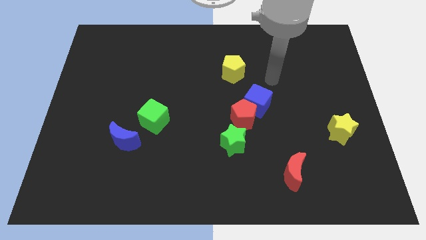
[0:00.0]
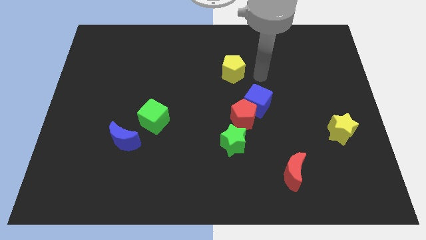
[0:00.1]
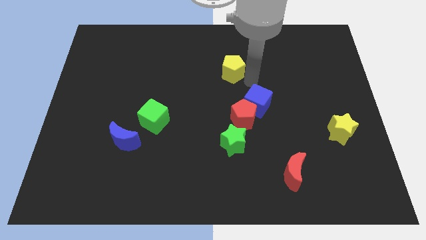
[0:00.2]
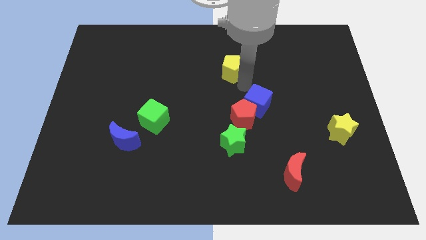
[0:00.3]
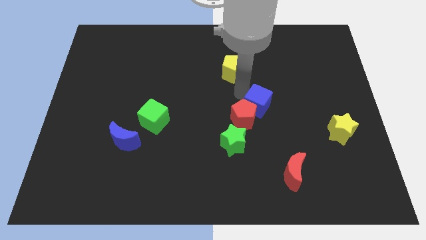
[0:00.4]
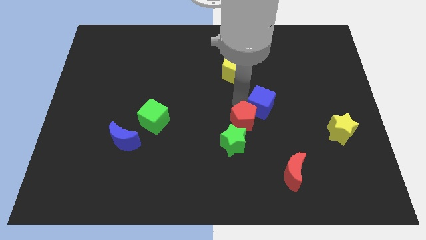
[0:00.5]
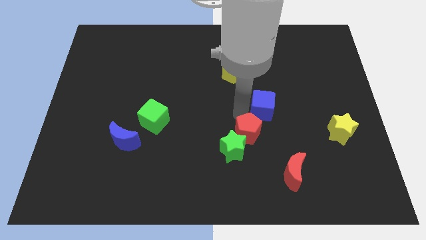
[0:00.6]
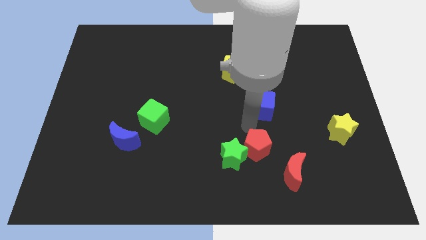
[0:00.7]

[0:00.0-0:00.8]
move the blue cube away from the red pentagon

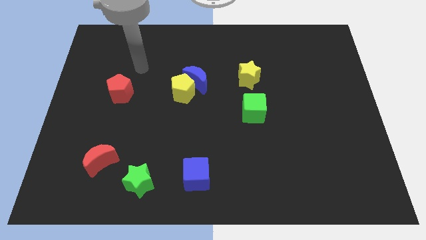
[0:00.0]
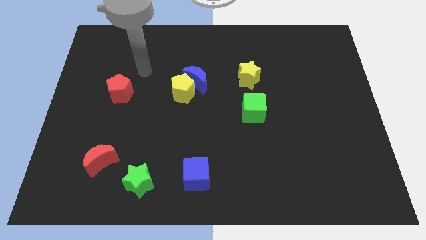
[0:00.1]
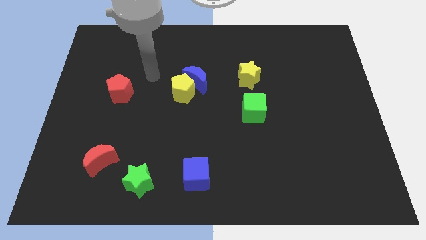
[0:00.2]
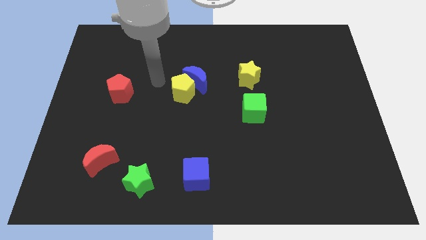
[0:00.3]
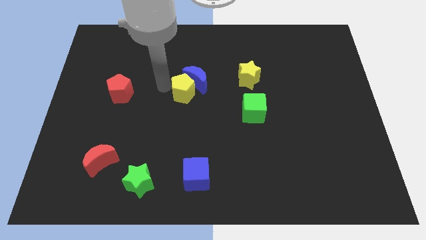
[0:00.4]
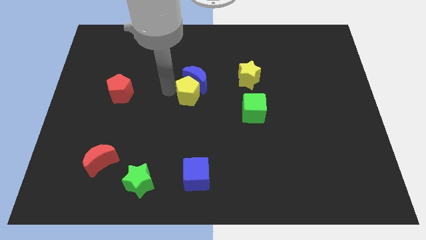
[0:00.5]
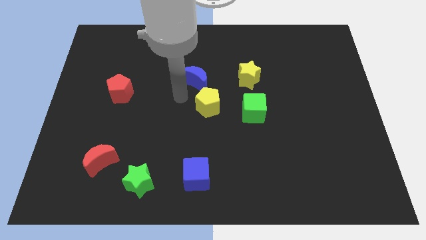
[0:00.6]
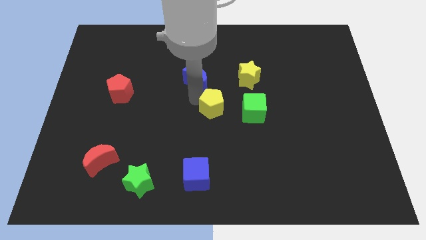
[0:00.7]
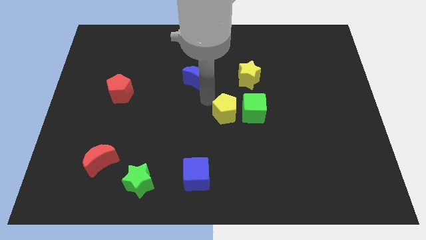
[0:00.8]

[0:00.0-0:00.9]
pull the blue moon apart from the yellow pentagon

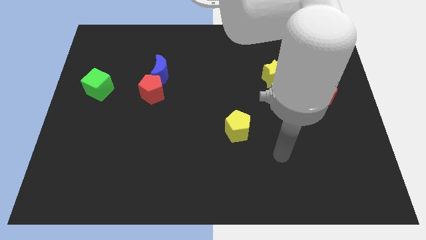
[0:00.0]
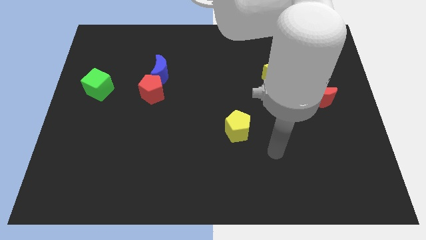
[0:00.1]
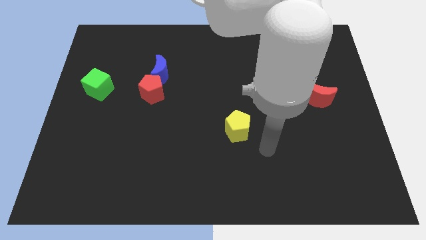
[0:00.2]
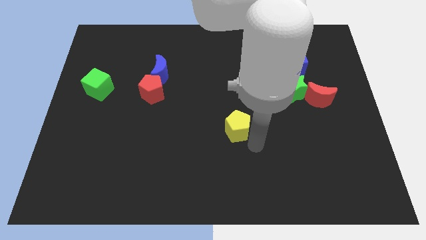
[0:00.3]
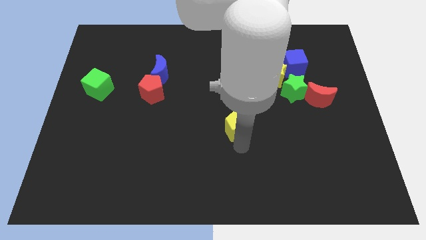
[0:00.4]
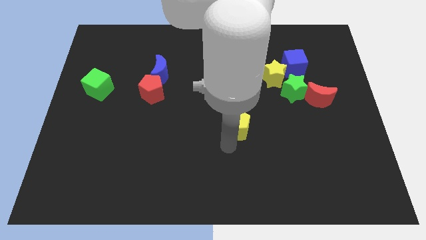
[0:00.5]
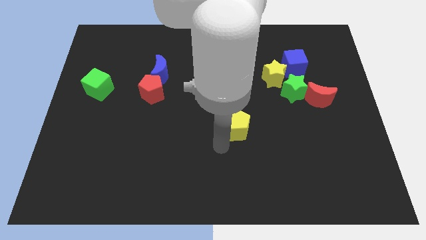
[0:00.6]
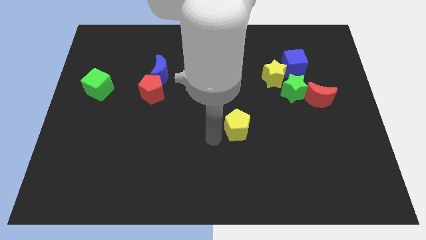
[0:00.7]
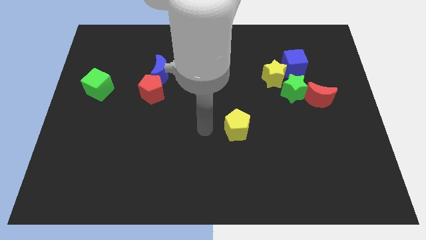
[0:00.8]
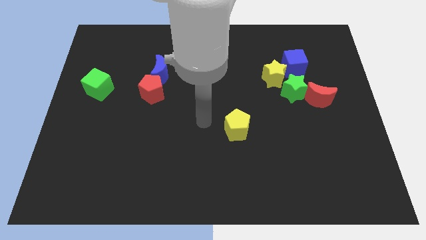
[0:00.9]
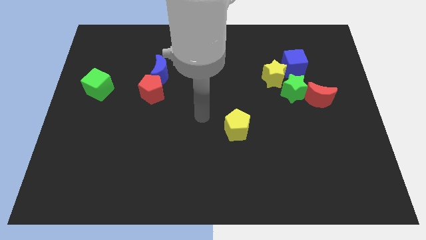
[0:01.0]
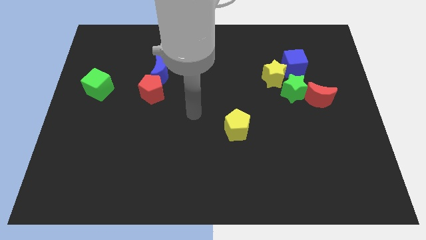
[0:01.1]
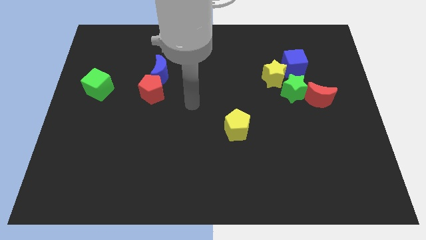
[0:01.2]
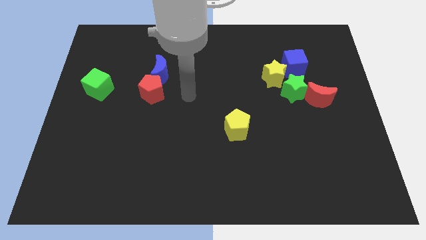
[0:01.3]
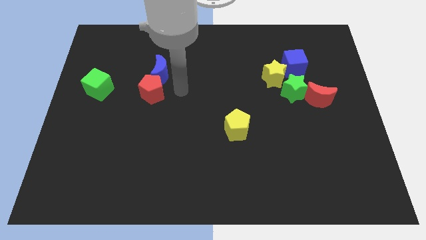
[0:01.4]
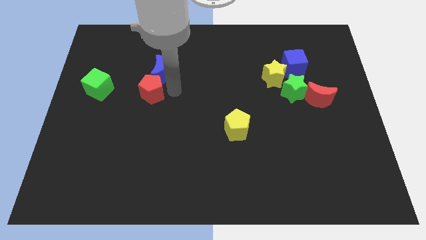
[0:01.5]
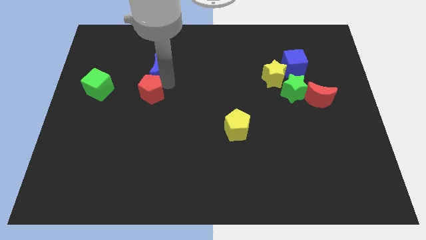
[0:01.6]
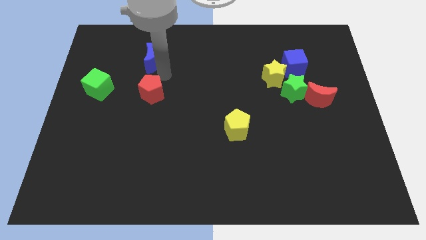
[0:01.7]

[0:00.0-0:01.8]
pull the red pentagon apart from the blue moon

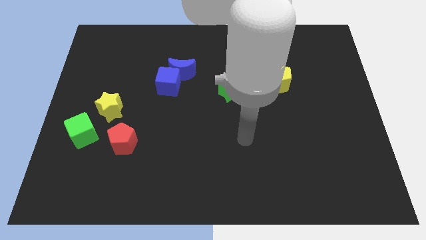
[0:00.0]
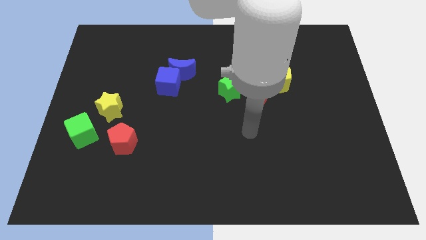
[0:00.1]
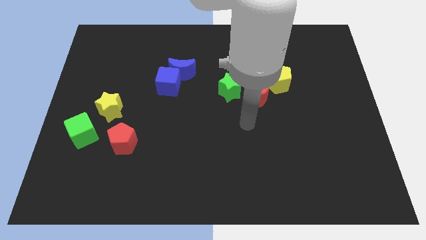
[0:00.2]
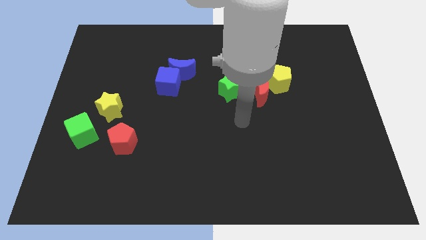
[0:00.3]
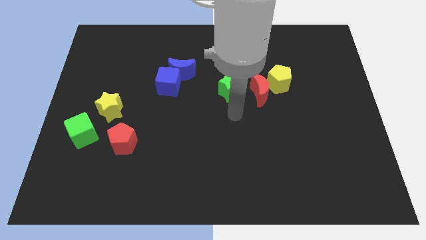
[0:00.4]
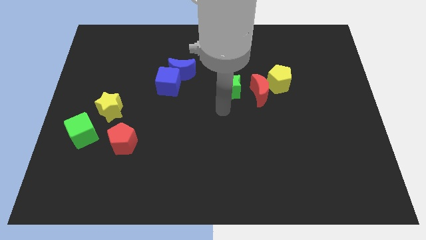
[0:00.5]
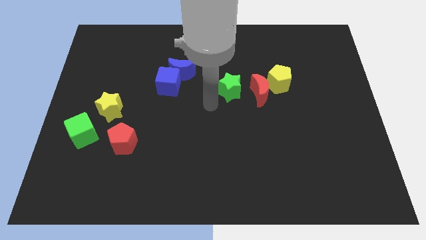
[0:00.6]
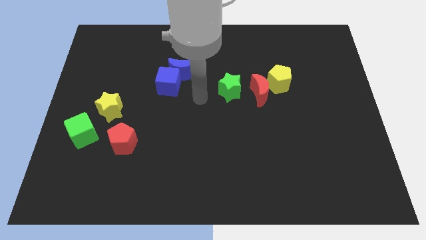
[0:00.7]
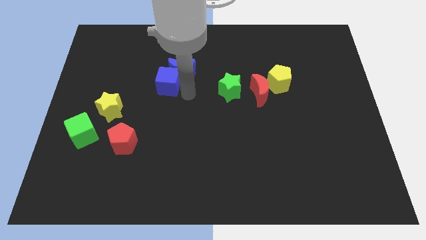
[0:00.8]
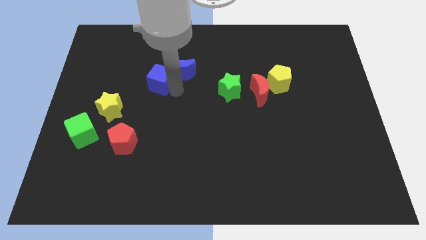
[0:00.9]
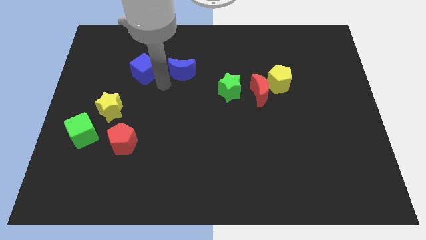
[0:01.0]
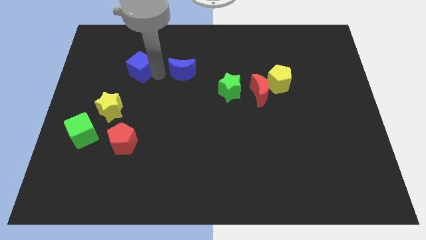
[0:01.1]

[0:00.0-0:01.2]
pull the blue moon apart from the blue cube

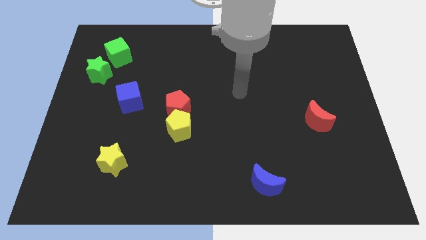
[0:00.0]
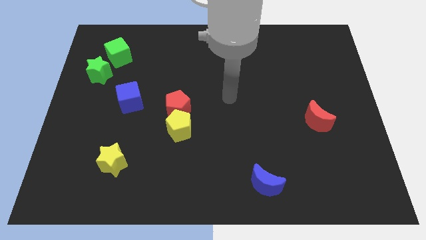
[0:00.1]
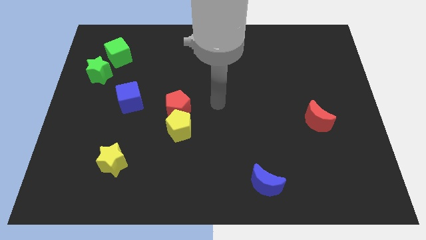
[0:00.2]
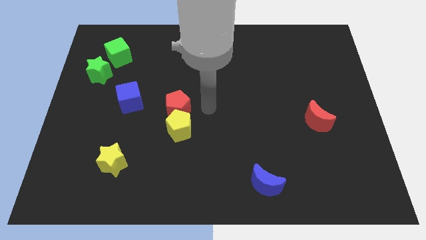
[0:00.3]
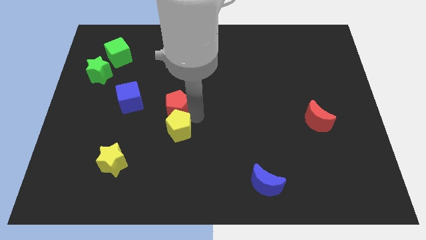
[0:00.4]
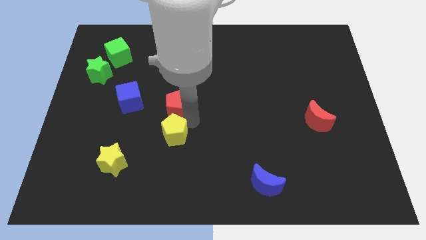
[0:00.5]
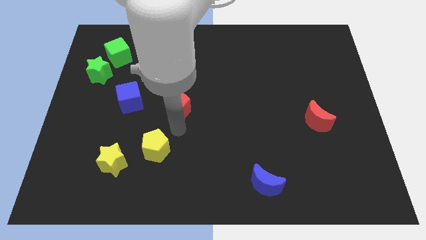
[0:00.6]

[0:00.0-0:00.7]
pull the red pentagon apart from the yellow pentagon

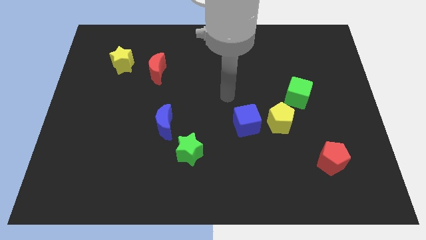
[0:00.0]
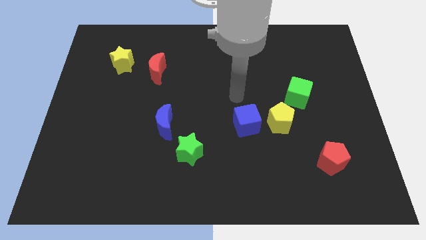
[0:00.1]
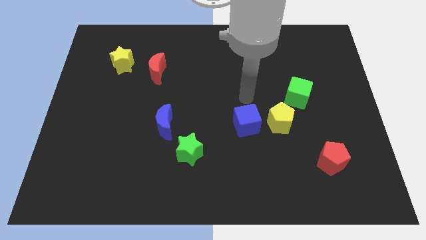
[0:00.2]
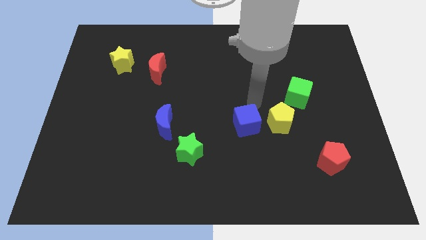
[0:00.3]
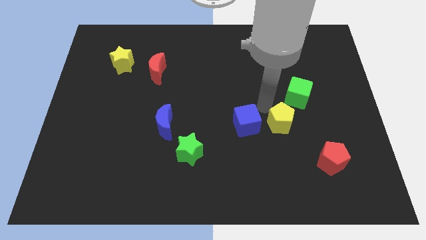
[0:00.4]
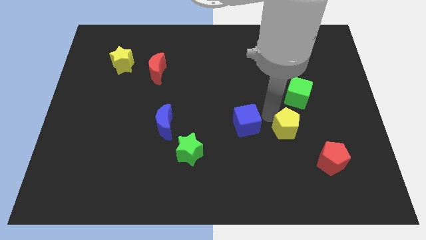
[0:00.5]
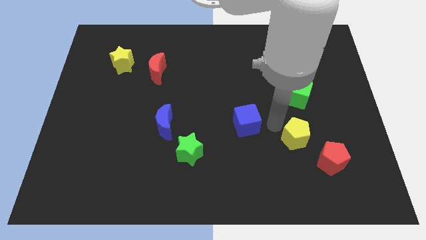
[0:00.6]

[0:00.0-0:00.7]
pull the blue cube apart from the yellow pentagon

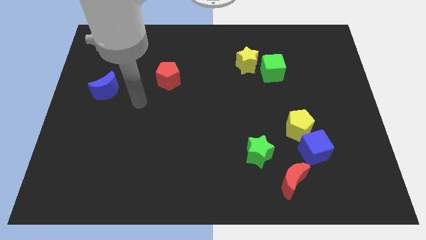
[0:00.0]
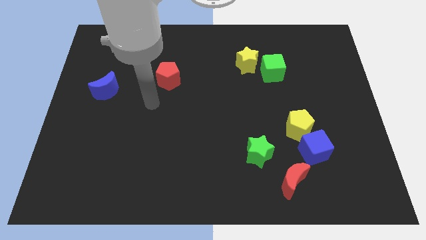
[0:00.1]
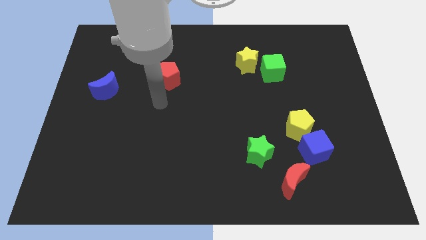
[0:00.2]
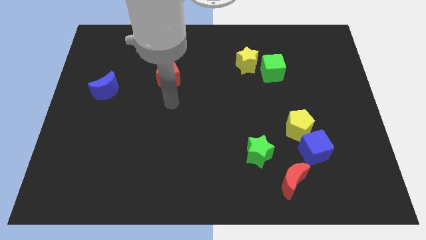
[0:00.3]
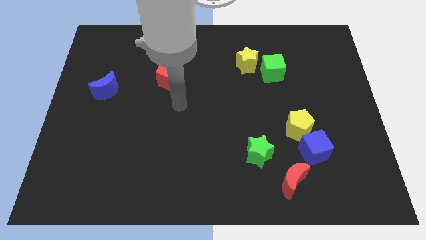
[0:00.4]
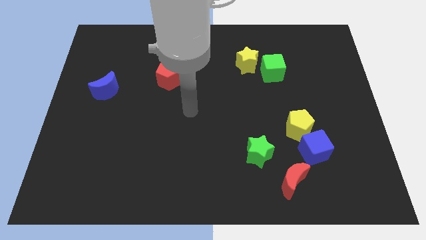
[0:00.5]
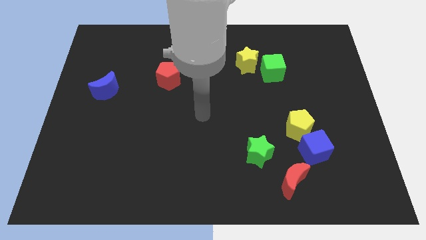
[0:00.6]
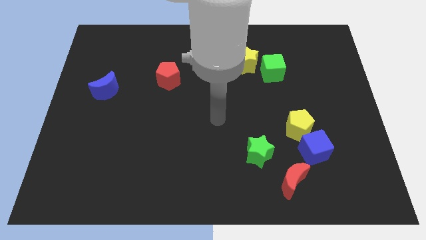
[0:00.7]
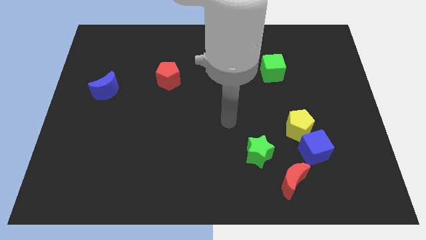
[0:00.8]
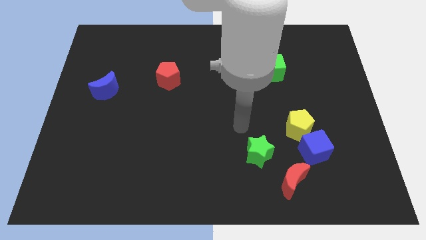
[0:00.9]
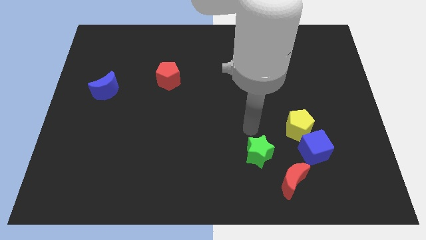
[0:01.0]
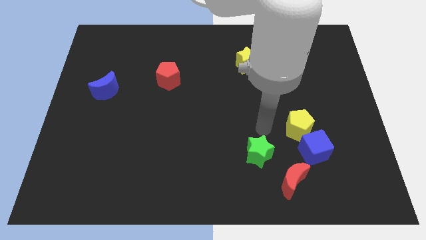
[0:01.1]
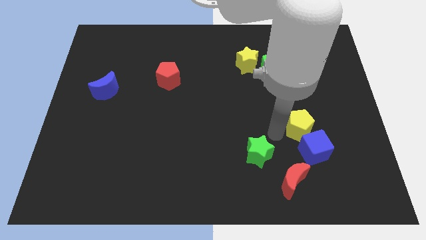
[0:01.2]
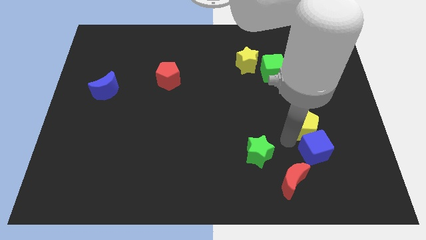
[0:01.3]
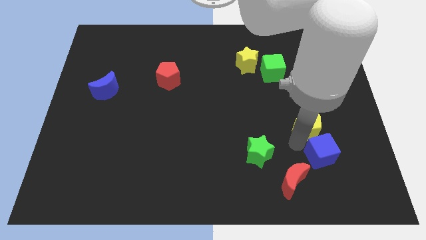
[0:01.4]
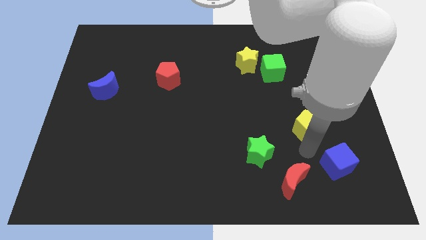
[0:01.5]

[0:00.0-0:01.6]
separate the yellow pentagon from the blue cube

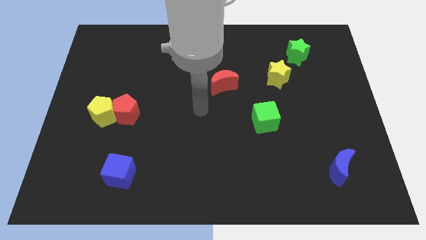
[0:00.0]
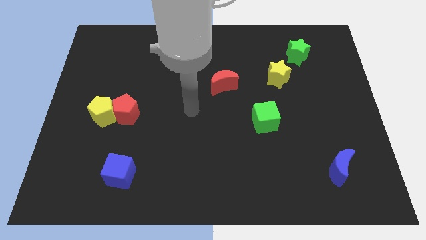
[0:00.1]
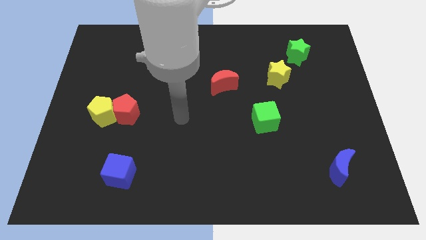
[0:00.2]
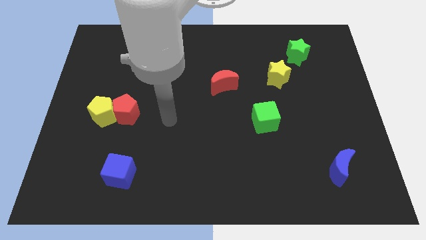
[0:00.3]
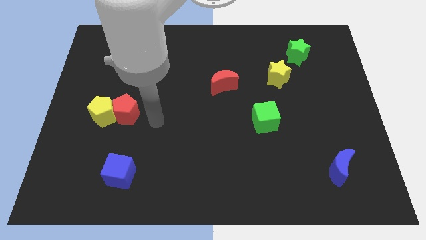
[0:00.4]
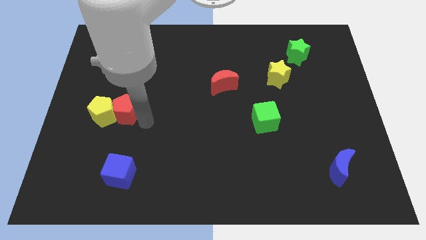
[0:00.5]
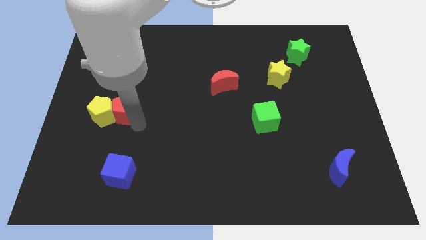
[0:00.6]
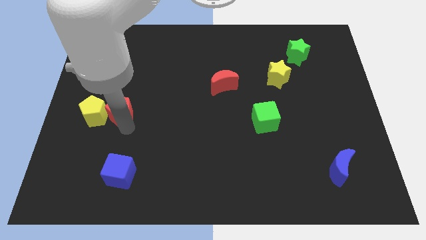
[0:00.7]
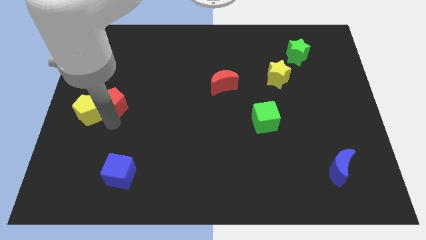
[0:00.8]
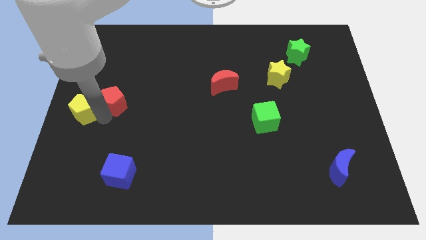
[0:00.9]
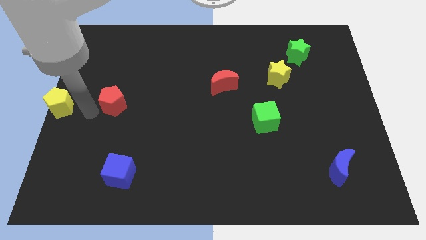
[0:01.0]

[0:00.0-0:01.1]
move the red pentagon away from the yellow pentagon

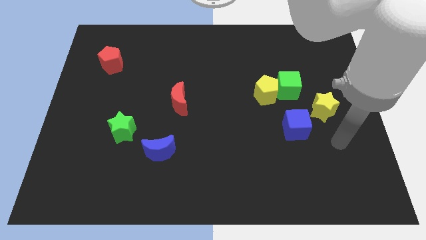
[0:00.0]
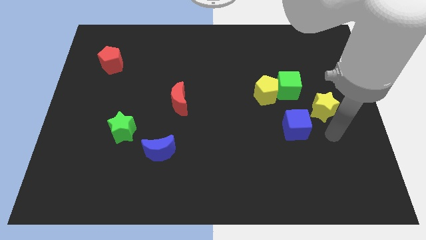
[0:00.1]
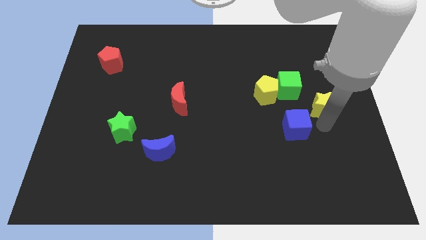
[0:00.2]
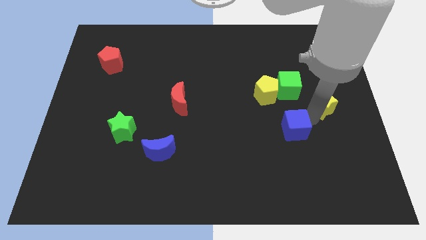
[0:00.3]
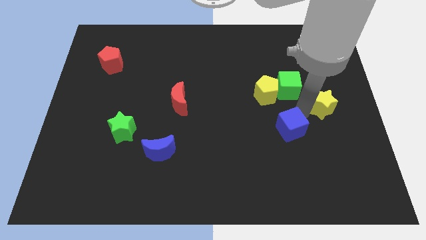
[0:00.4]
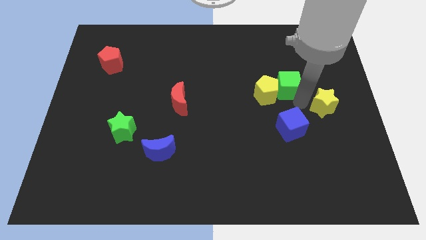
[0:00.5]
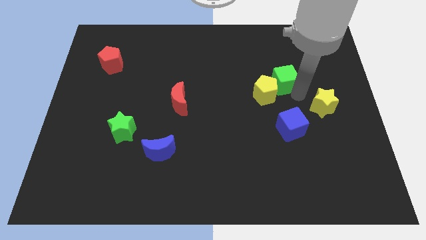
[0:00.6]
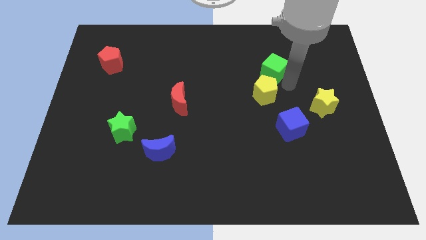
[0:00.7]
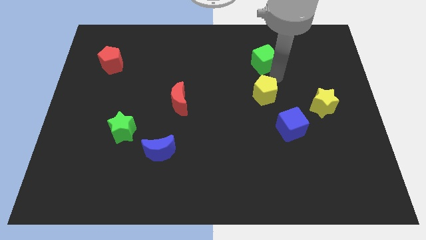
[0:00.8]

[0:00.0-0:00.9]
separate the yellow pentagon from the green cube
